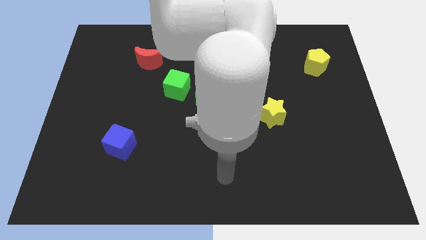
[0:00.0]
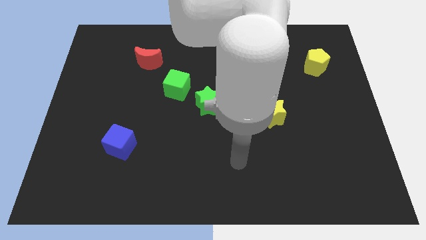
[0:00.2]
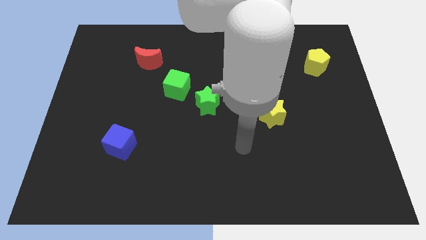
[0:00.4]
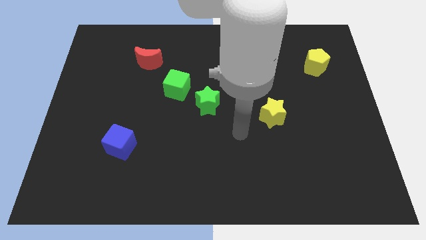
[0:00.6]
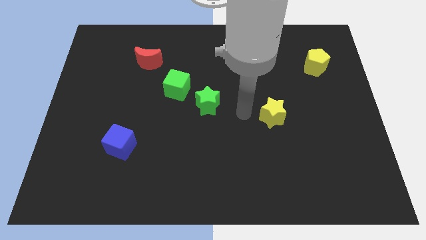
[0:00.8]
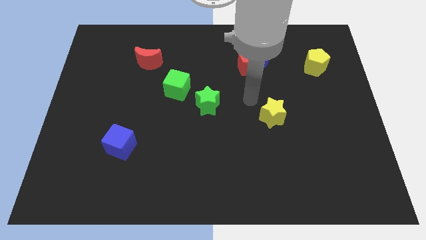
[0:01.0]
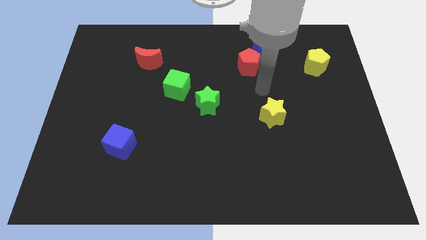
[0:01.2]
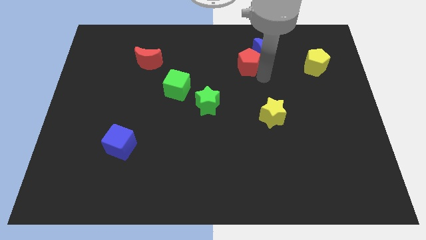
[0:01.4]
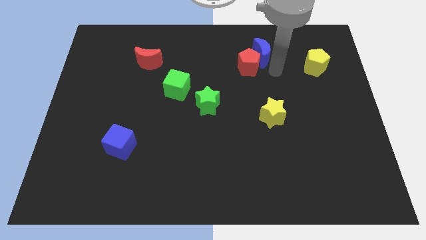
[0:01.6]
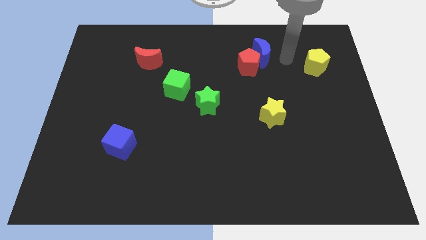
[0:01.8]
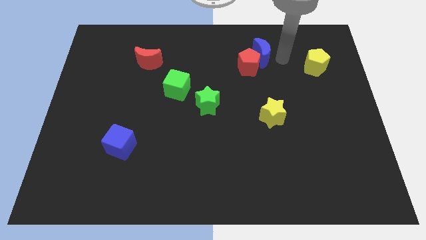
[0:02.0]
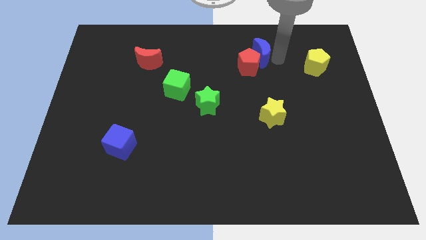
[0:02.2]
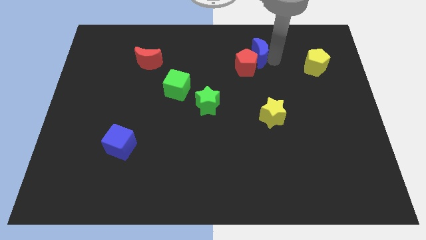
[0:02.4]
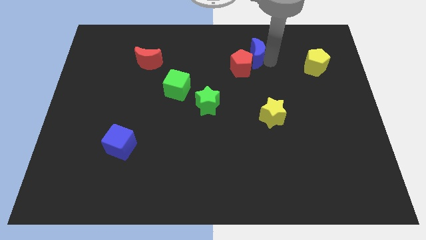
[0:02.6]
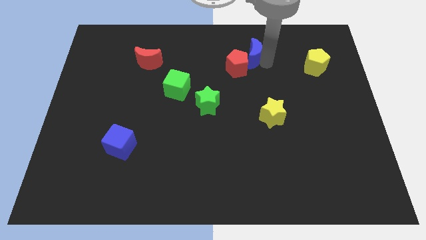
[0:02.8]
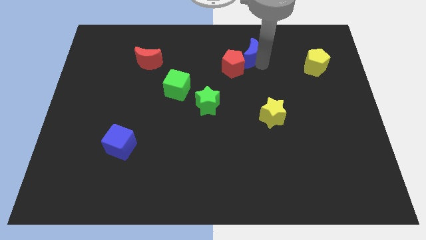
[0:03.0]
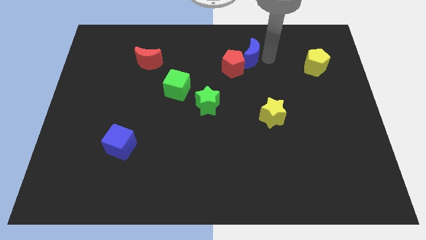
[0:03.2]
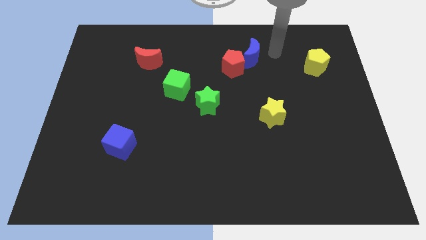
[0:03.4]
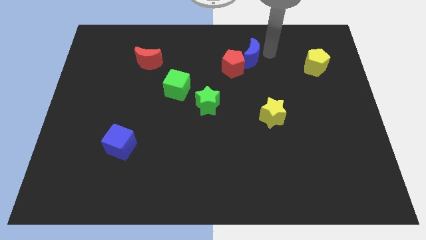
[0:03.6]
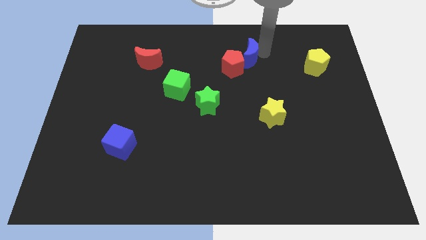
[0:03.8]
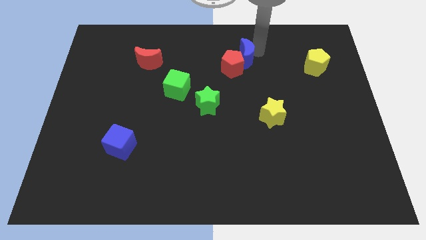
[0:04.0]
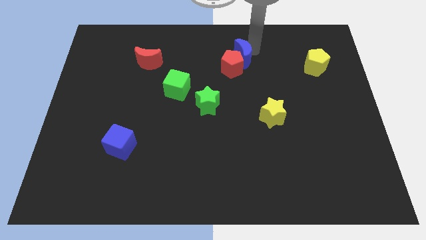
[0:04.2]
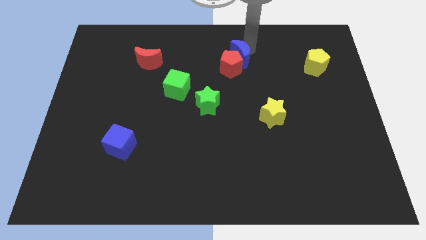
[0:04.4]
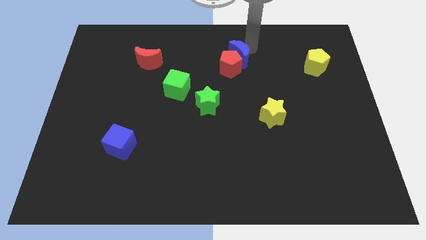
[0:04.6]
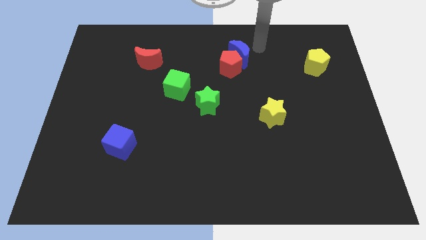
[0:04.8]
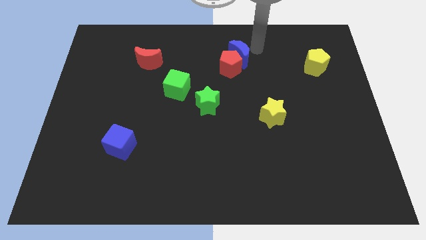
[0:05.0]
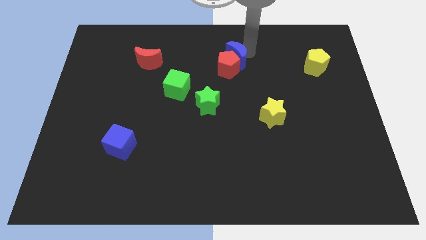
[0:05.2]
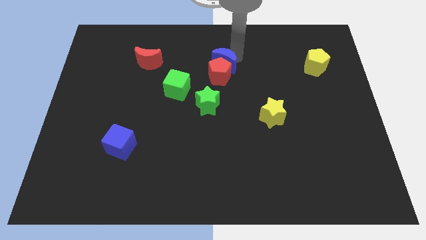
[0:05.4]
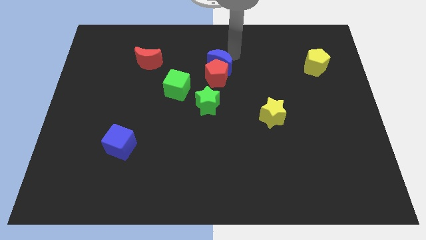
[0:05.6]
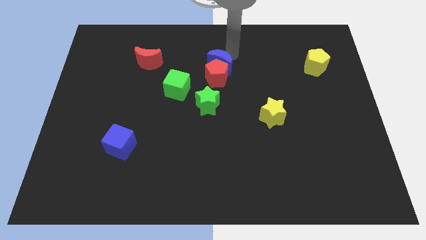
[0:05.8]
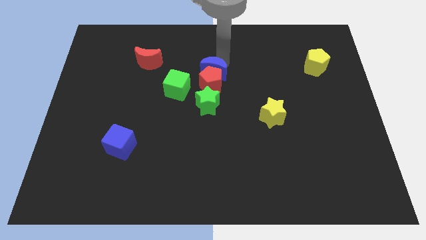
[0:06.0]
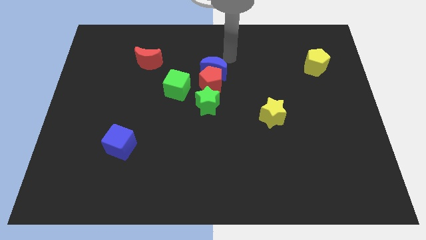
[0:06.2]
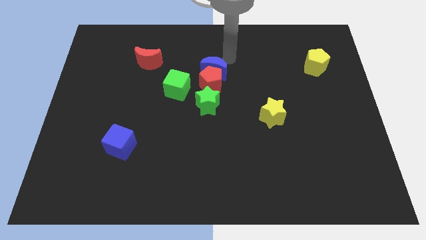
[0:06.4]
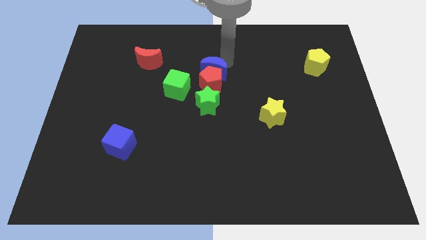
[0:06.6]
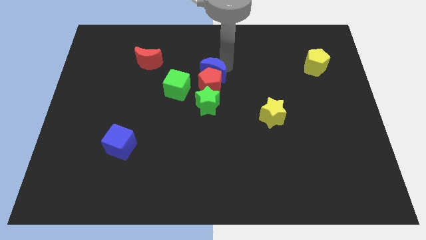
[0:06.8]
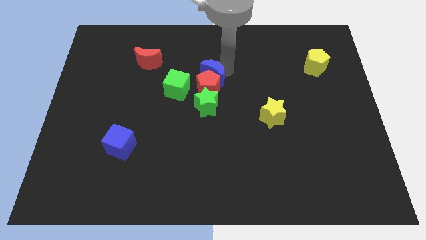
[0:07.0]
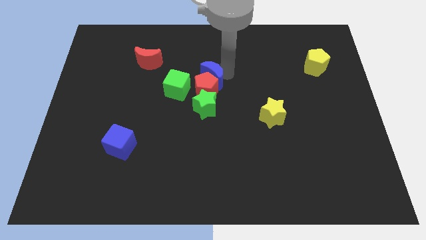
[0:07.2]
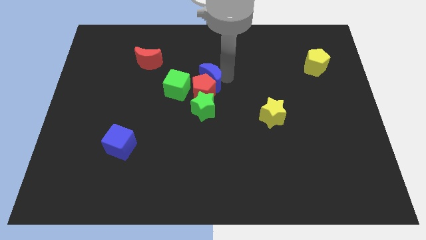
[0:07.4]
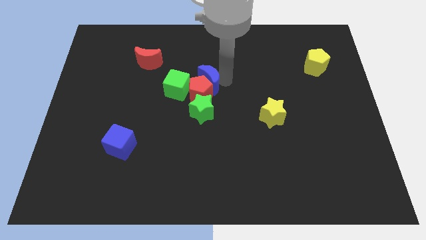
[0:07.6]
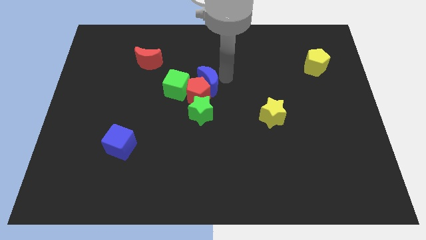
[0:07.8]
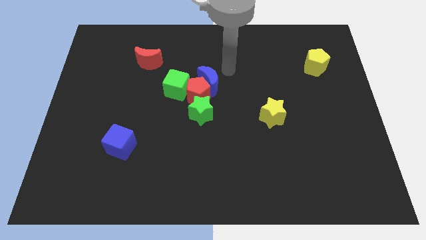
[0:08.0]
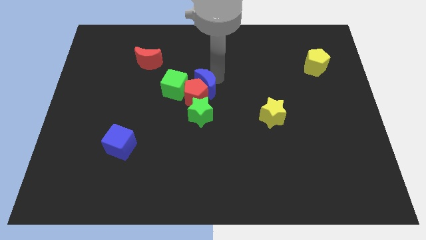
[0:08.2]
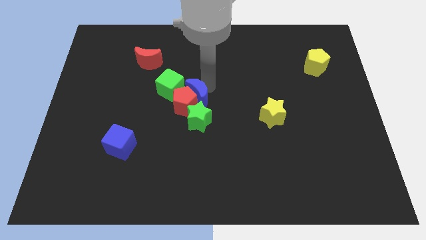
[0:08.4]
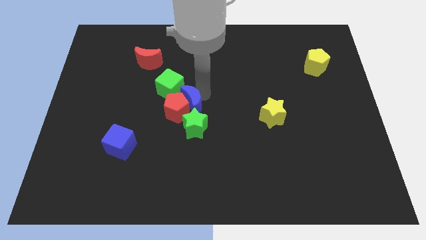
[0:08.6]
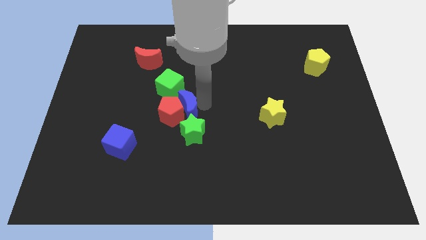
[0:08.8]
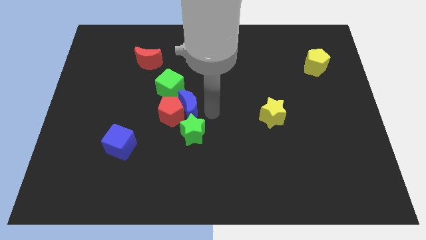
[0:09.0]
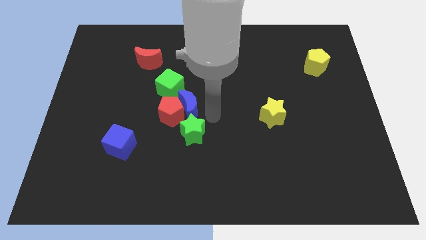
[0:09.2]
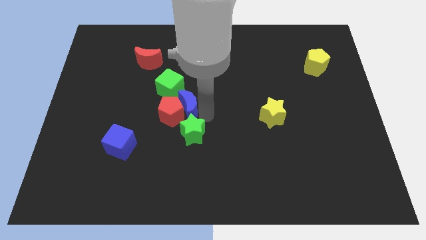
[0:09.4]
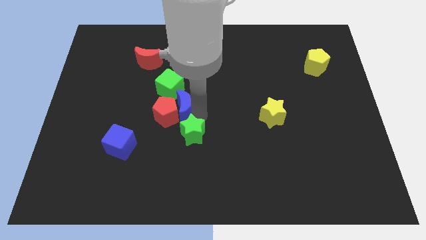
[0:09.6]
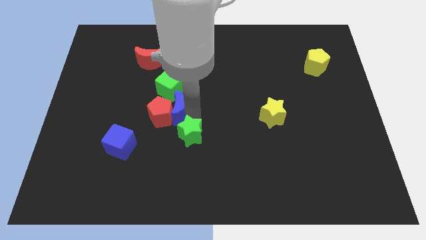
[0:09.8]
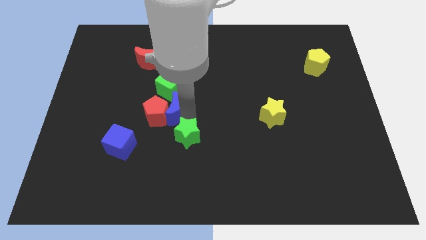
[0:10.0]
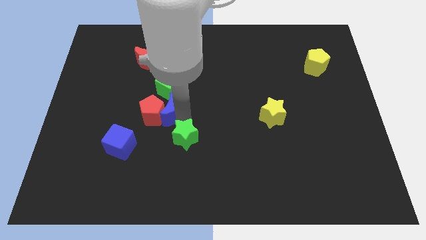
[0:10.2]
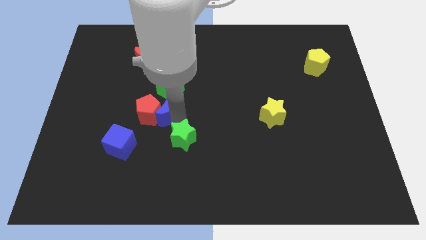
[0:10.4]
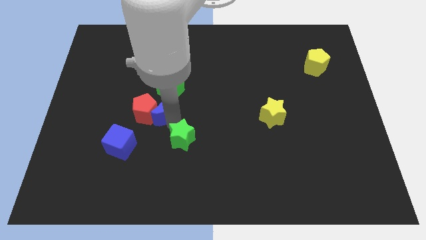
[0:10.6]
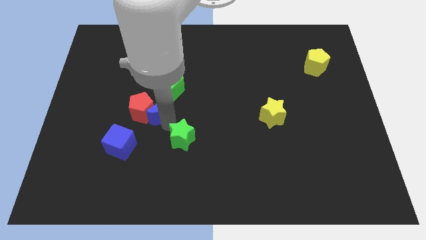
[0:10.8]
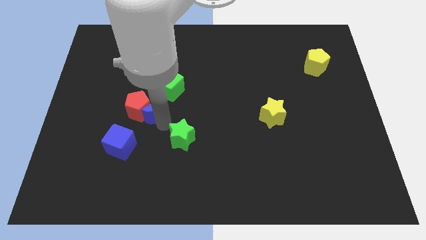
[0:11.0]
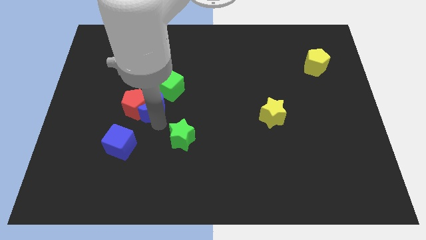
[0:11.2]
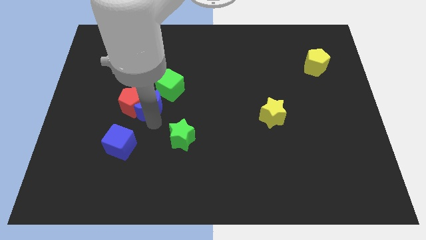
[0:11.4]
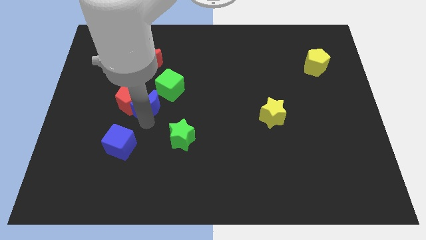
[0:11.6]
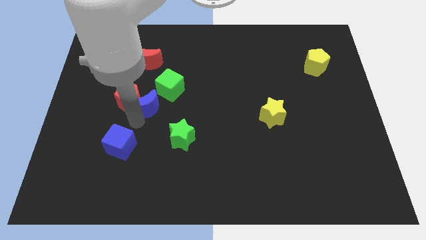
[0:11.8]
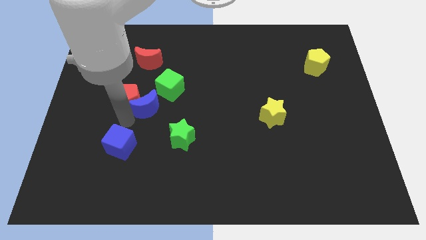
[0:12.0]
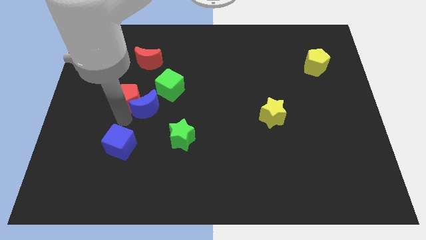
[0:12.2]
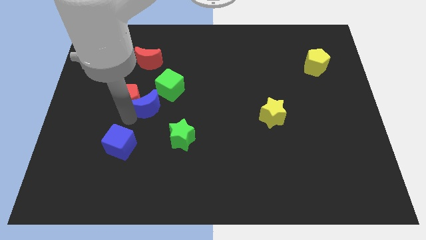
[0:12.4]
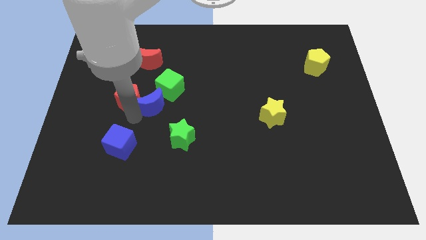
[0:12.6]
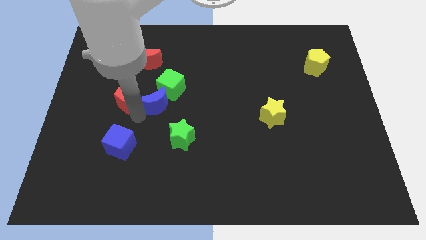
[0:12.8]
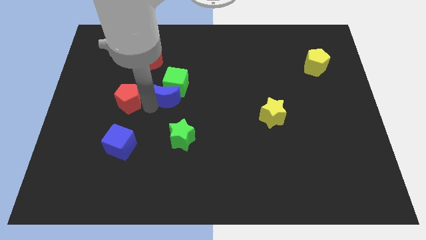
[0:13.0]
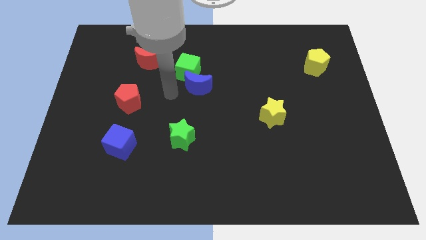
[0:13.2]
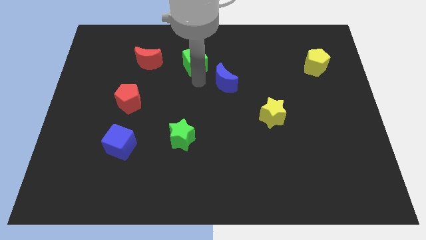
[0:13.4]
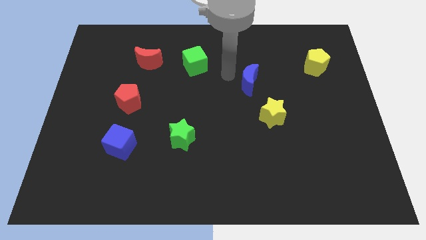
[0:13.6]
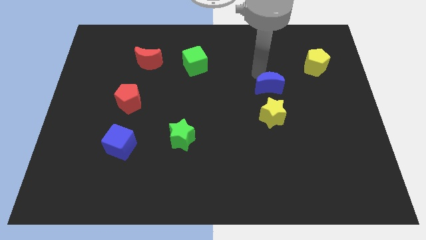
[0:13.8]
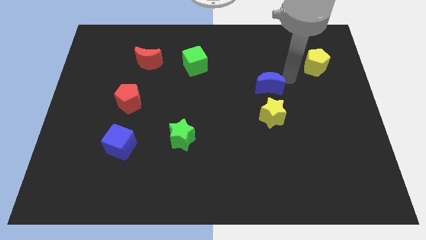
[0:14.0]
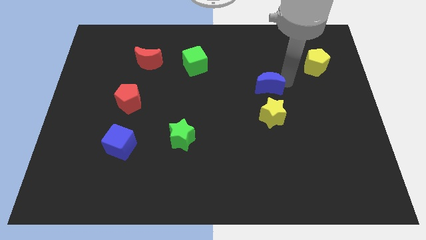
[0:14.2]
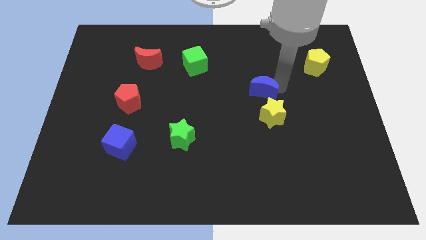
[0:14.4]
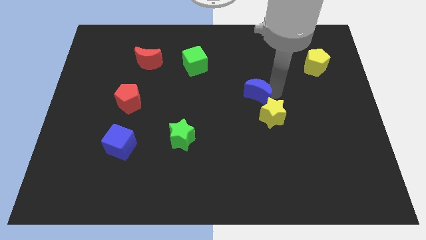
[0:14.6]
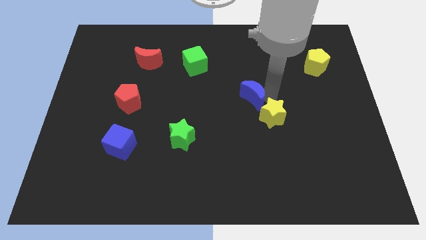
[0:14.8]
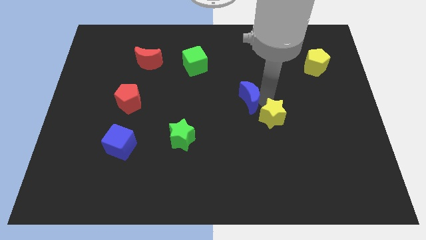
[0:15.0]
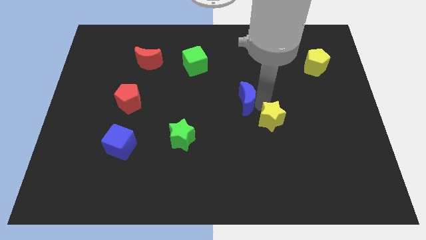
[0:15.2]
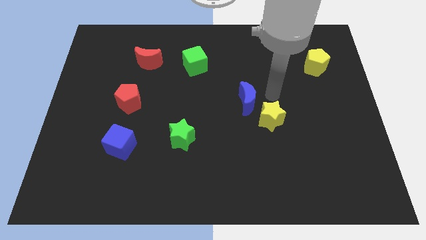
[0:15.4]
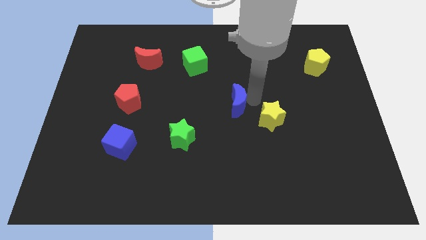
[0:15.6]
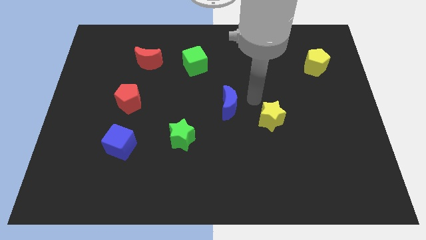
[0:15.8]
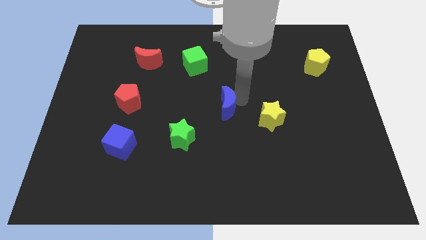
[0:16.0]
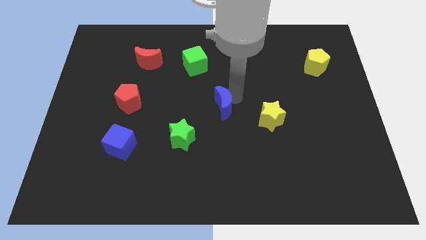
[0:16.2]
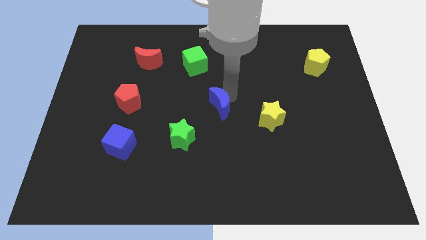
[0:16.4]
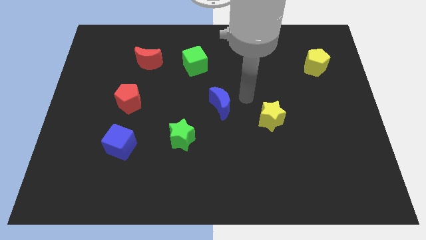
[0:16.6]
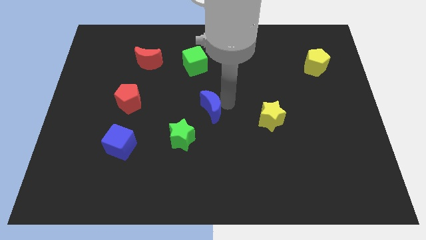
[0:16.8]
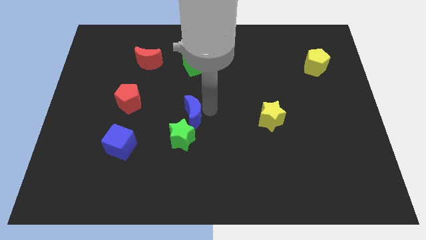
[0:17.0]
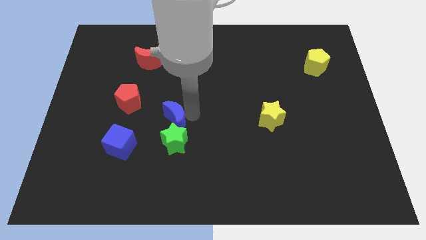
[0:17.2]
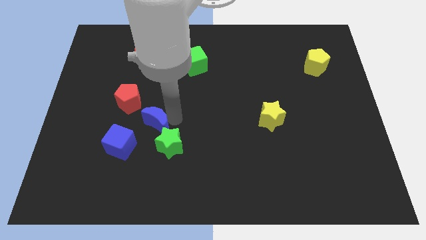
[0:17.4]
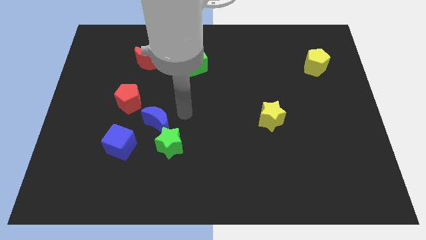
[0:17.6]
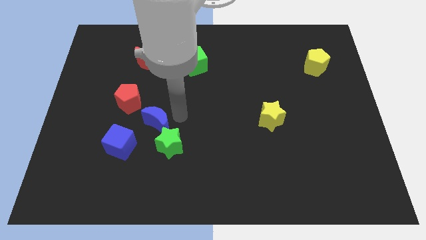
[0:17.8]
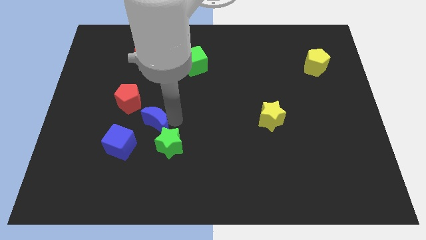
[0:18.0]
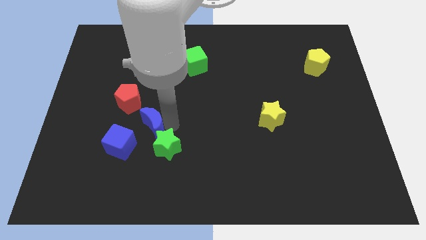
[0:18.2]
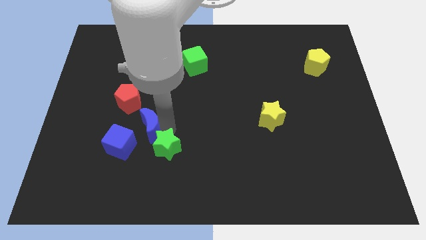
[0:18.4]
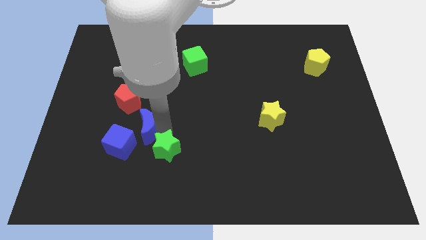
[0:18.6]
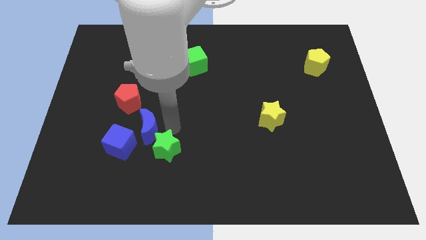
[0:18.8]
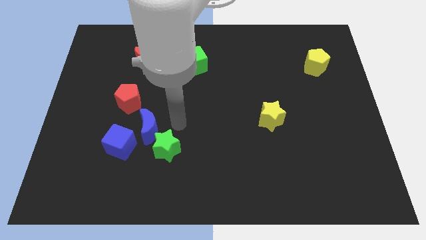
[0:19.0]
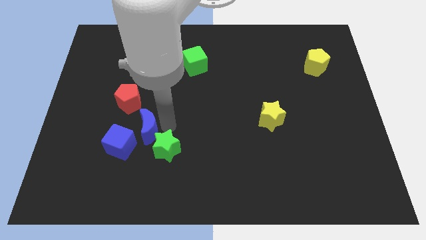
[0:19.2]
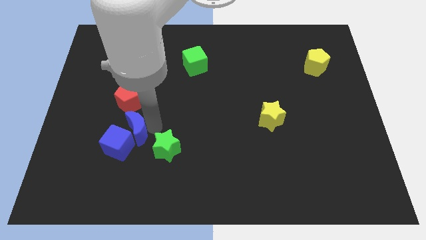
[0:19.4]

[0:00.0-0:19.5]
slide the blue moon to the blue cube
